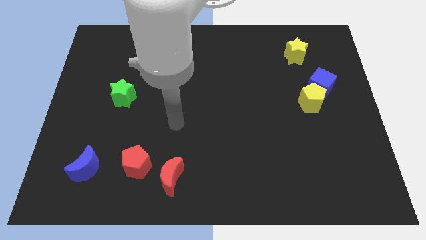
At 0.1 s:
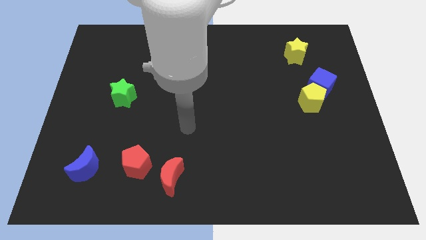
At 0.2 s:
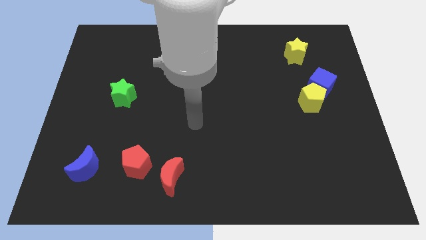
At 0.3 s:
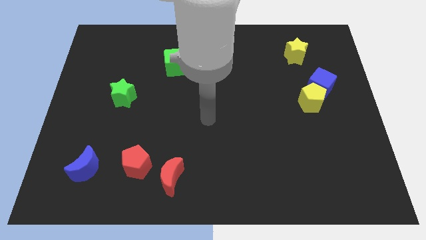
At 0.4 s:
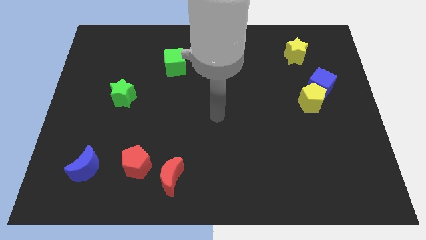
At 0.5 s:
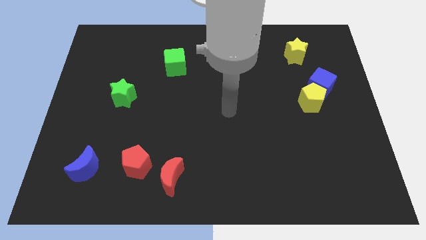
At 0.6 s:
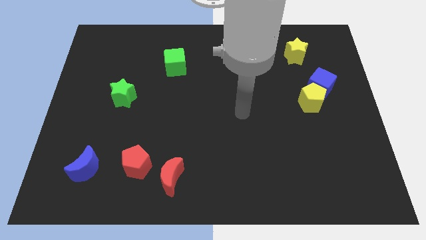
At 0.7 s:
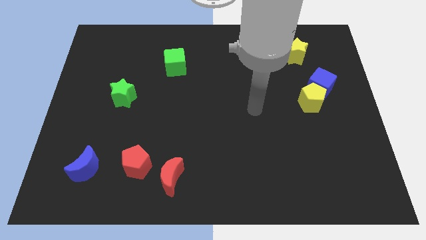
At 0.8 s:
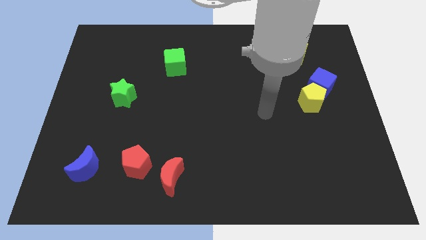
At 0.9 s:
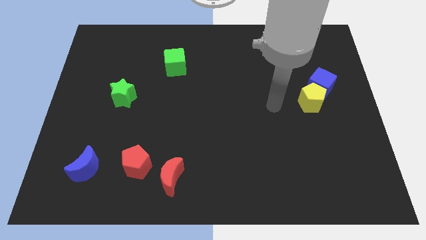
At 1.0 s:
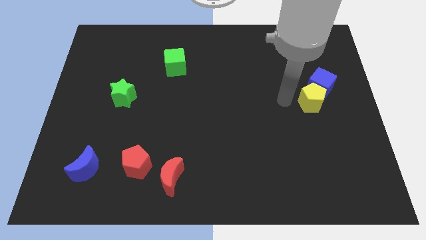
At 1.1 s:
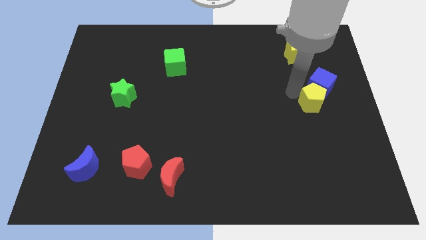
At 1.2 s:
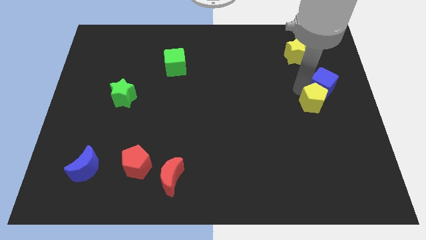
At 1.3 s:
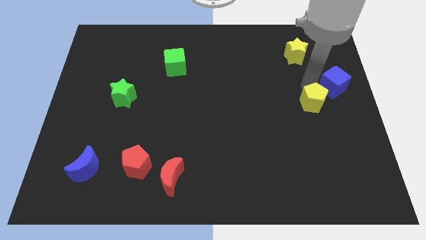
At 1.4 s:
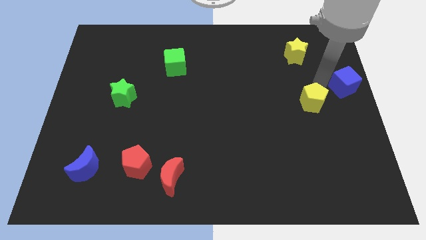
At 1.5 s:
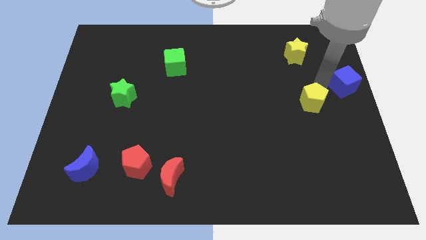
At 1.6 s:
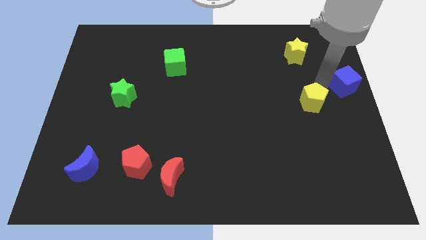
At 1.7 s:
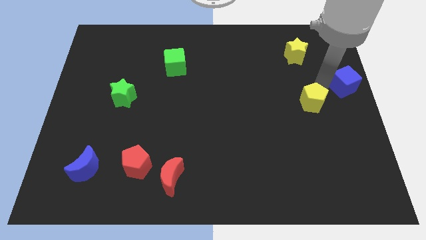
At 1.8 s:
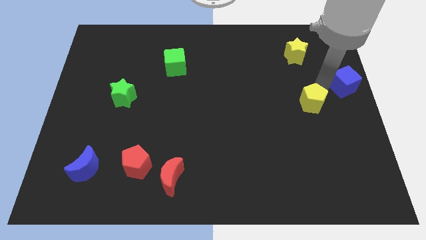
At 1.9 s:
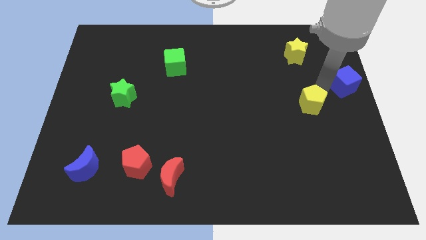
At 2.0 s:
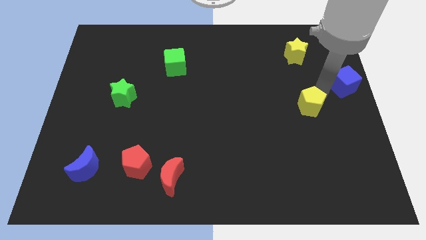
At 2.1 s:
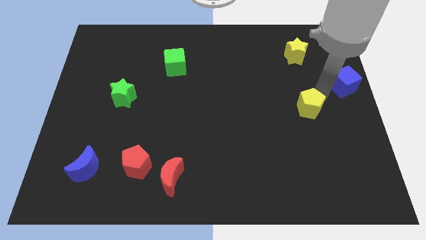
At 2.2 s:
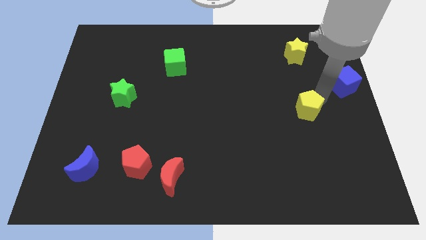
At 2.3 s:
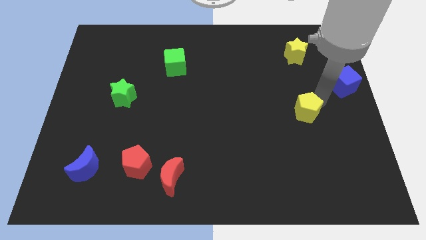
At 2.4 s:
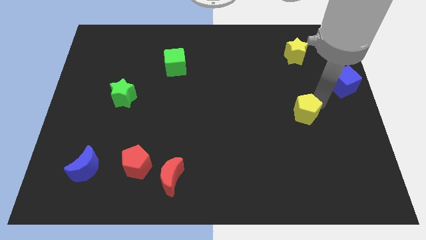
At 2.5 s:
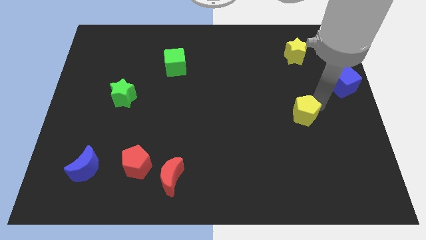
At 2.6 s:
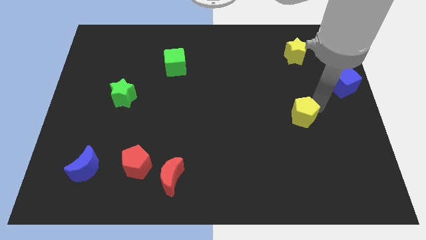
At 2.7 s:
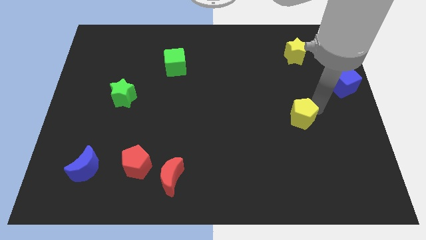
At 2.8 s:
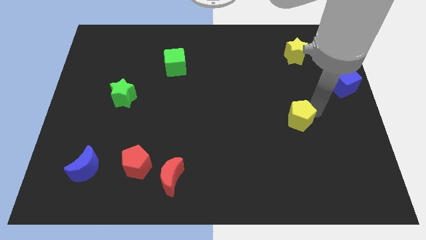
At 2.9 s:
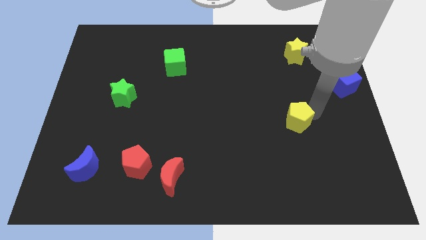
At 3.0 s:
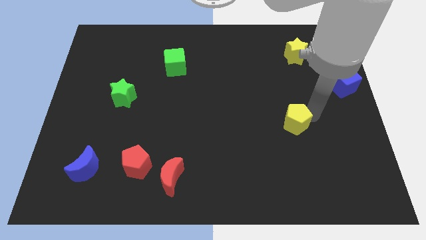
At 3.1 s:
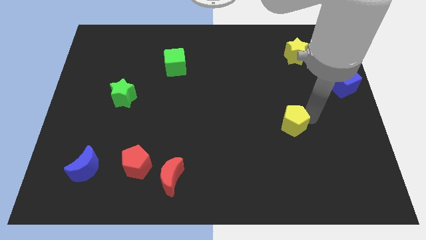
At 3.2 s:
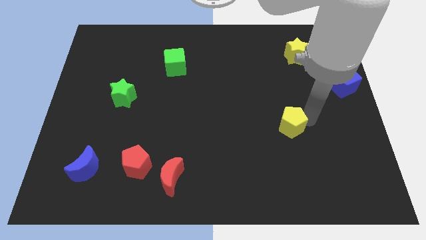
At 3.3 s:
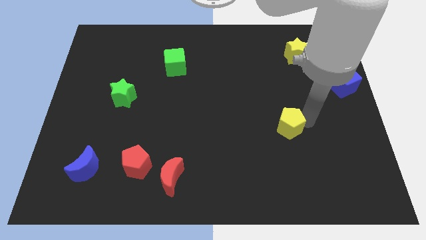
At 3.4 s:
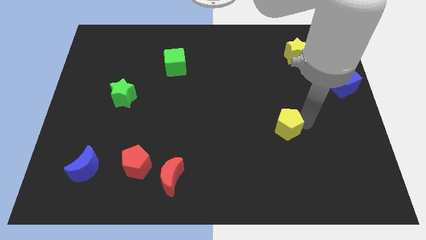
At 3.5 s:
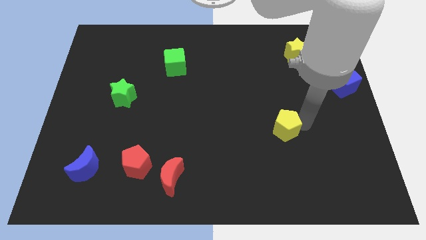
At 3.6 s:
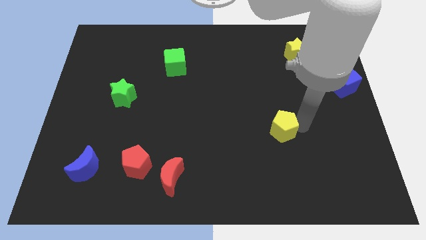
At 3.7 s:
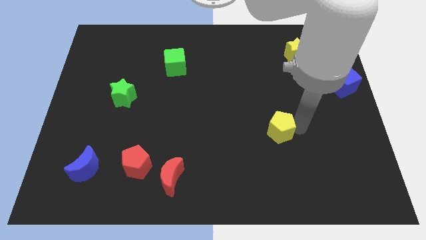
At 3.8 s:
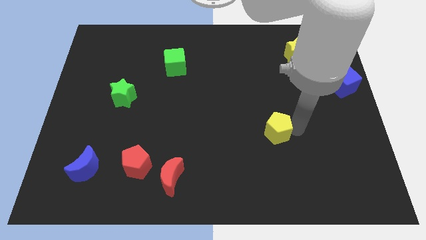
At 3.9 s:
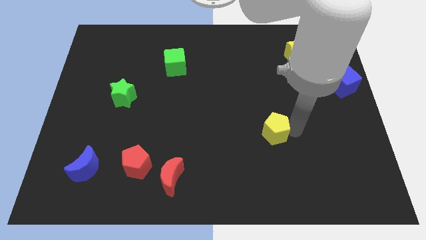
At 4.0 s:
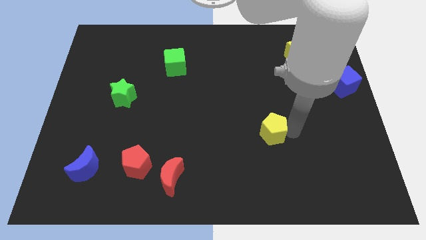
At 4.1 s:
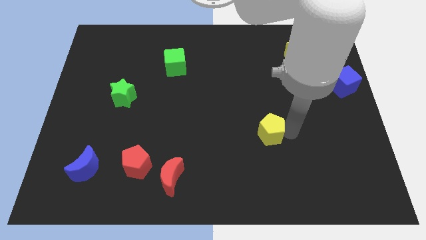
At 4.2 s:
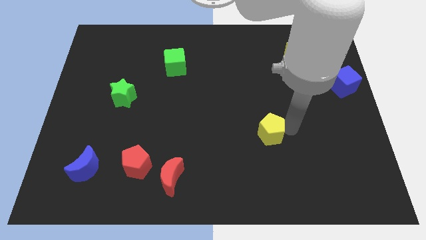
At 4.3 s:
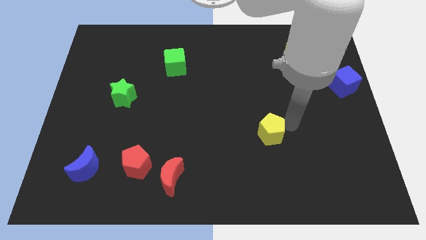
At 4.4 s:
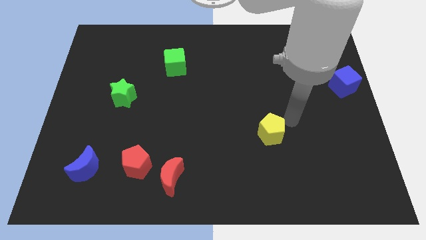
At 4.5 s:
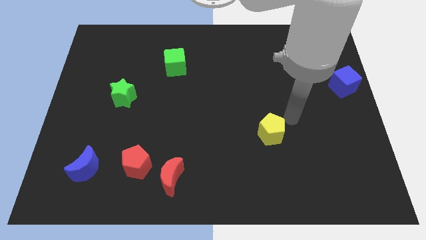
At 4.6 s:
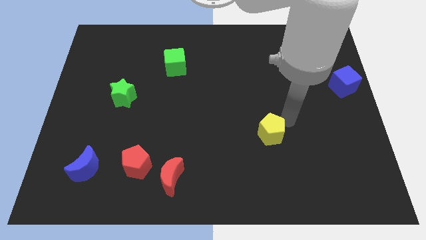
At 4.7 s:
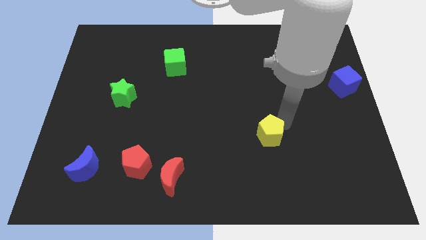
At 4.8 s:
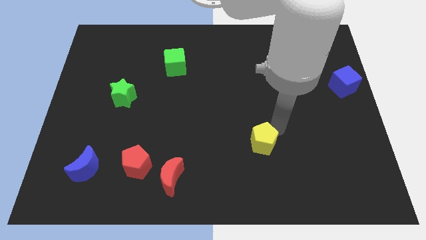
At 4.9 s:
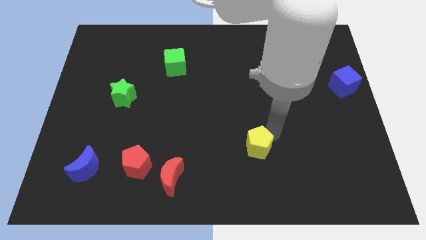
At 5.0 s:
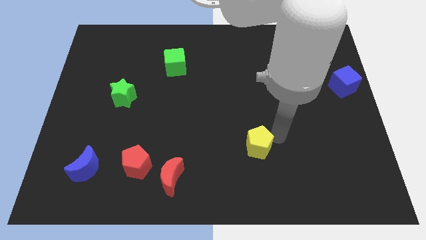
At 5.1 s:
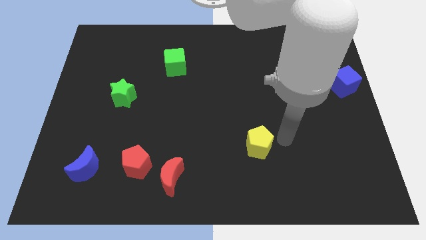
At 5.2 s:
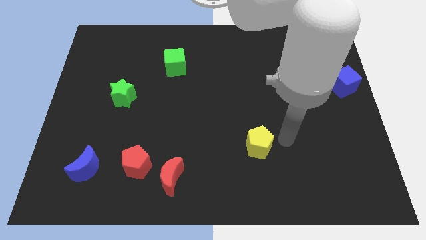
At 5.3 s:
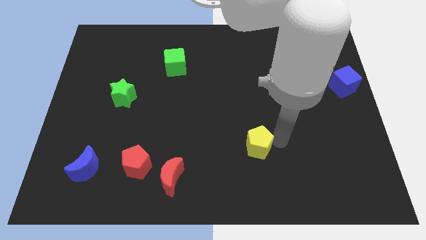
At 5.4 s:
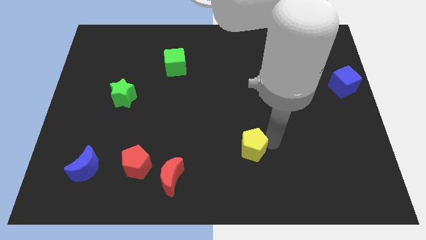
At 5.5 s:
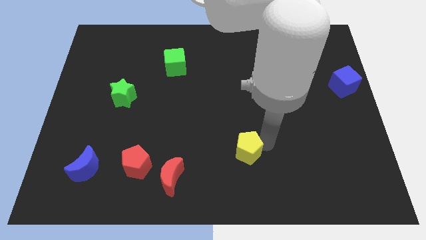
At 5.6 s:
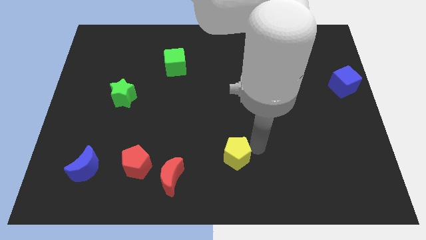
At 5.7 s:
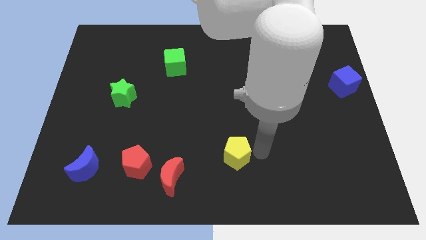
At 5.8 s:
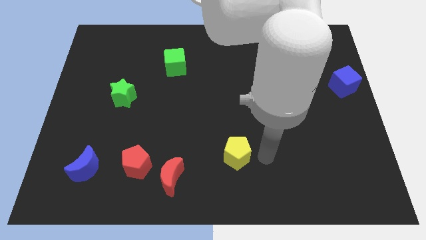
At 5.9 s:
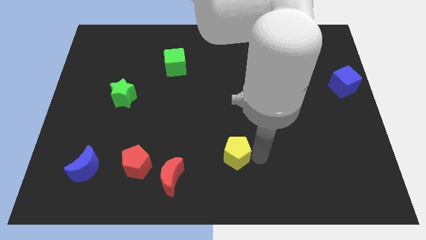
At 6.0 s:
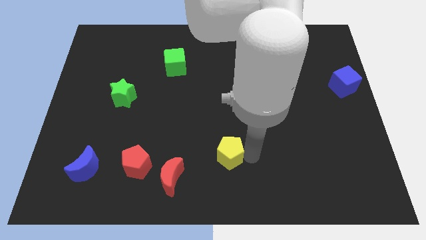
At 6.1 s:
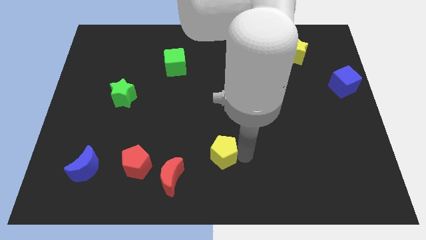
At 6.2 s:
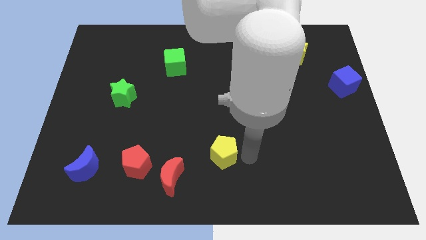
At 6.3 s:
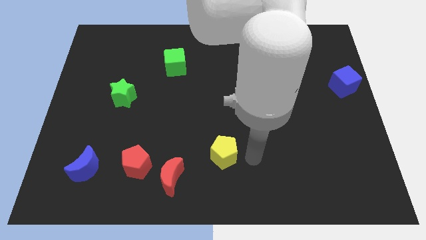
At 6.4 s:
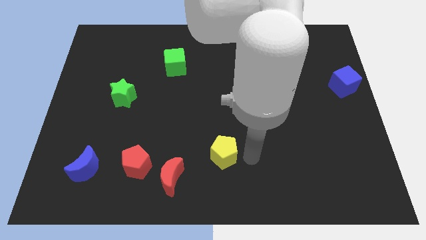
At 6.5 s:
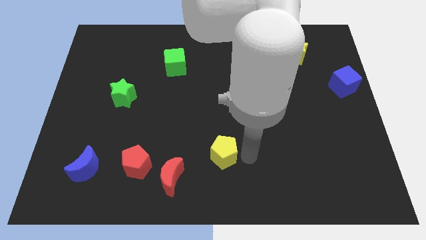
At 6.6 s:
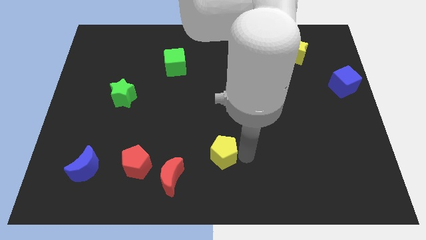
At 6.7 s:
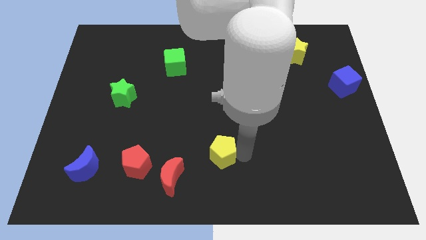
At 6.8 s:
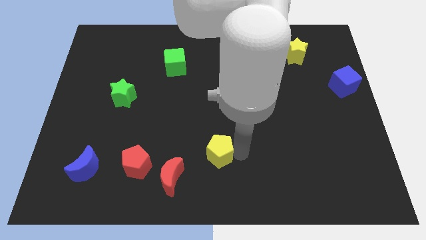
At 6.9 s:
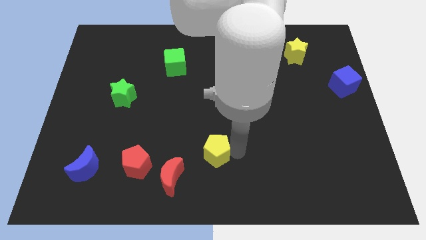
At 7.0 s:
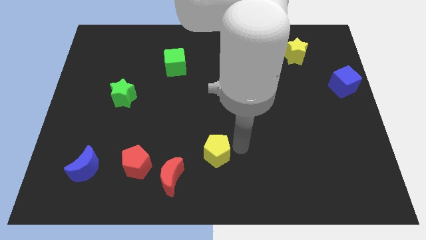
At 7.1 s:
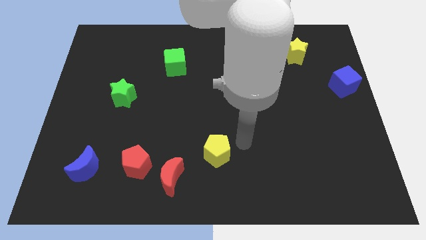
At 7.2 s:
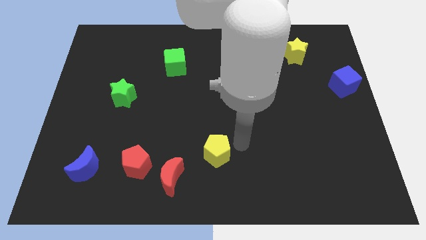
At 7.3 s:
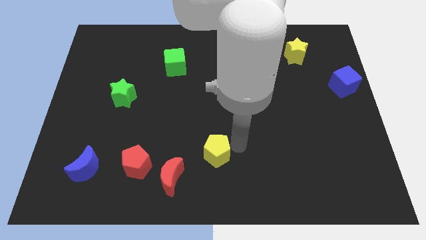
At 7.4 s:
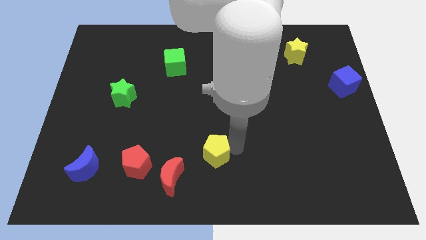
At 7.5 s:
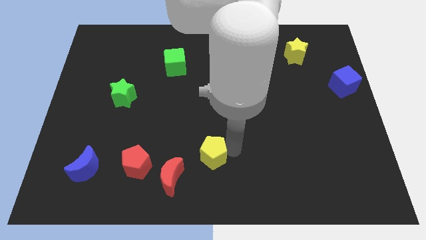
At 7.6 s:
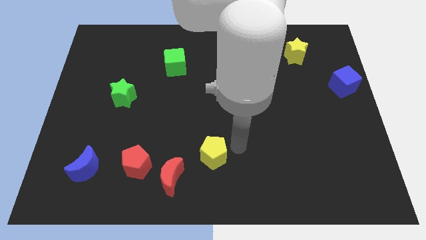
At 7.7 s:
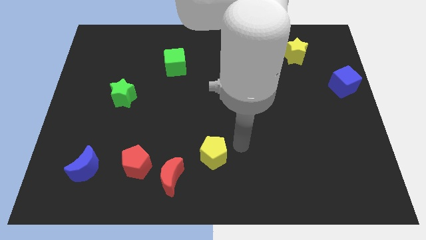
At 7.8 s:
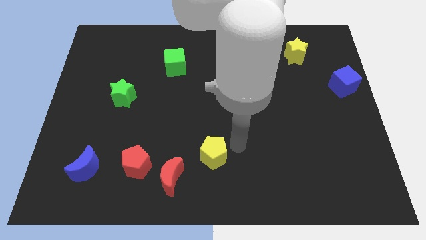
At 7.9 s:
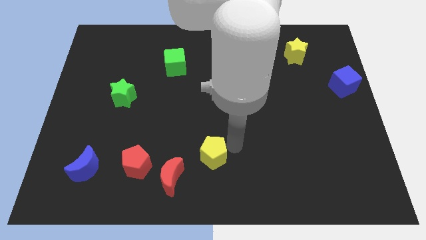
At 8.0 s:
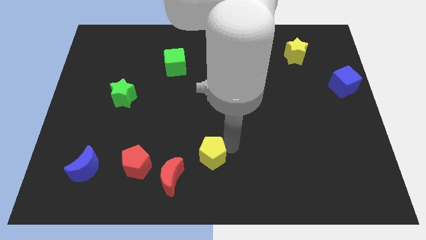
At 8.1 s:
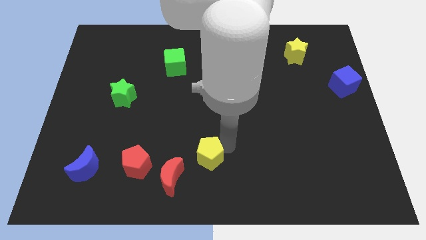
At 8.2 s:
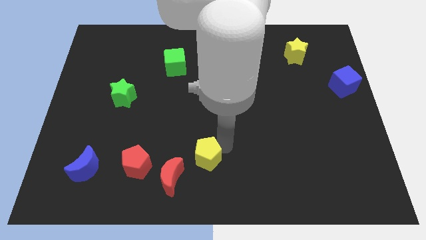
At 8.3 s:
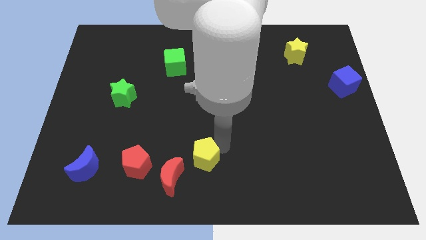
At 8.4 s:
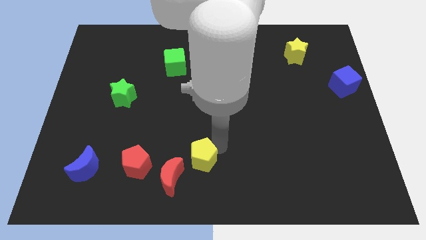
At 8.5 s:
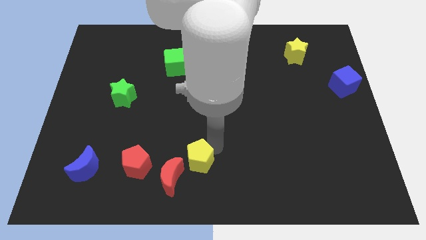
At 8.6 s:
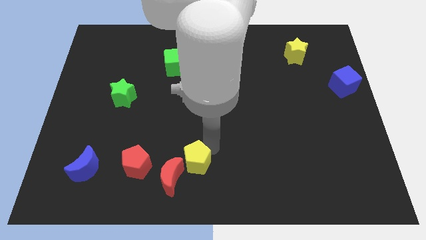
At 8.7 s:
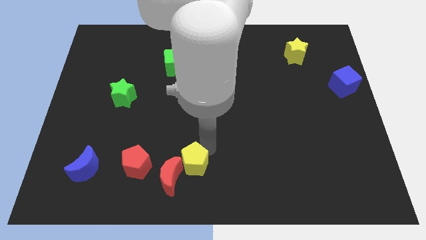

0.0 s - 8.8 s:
put the yellow pentagon close to the red moon
